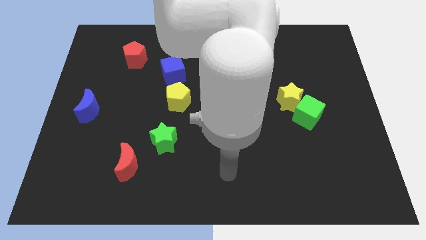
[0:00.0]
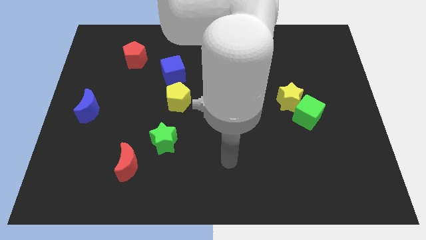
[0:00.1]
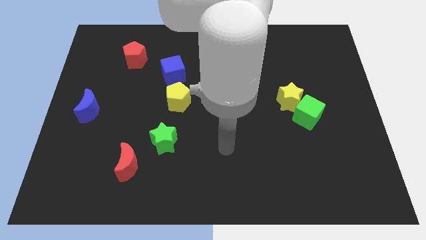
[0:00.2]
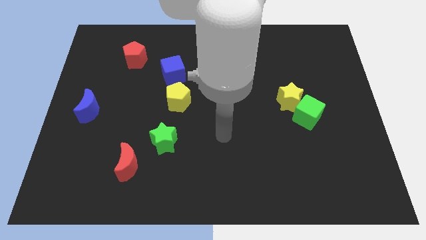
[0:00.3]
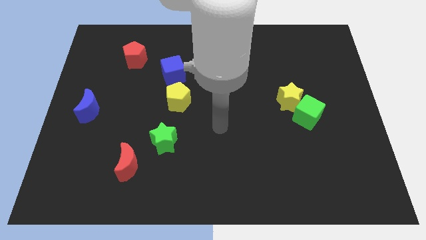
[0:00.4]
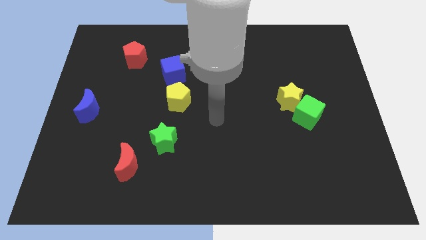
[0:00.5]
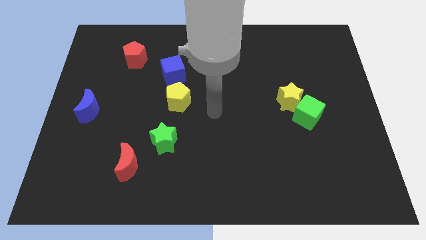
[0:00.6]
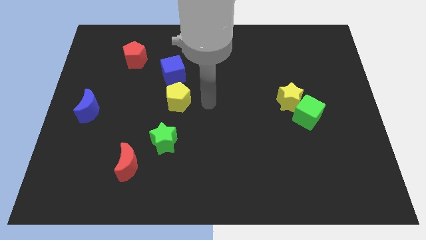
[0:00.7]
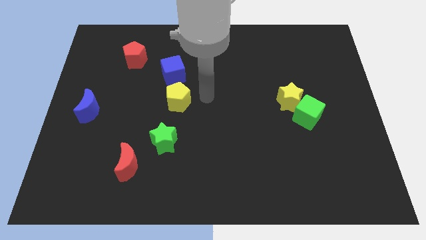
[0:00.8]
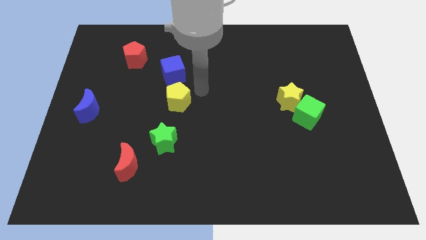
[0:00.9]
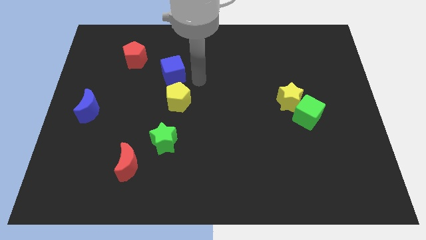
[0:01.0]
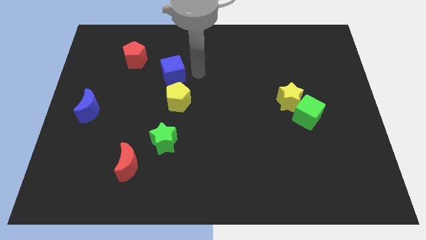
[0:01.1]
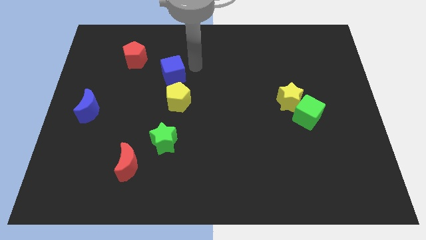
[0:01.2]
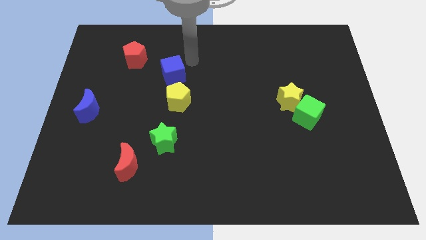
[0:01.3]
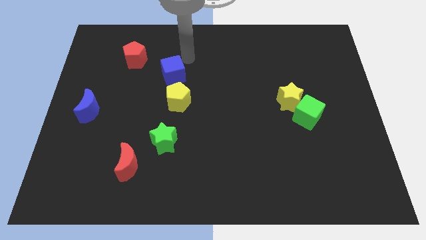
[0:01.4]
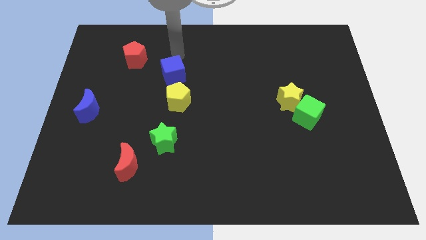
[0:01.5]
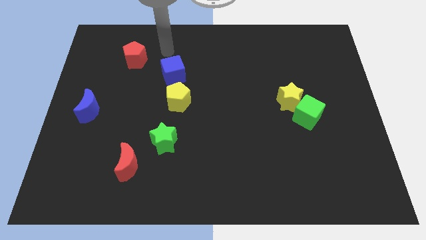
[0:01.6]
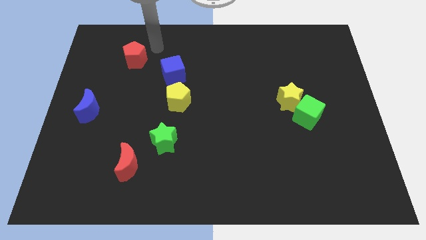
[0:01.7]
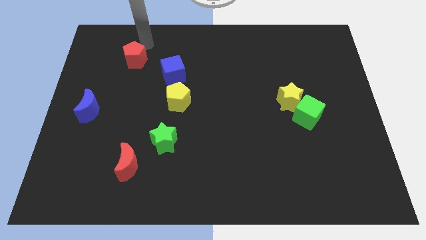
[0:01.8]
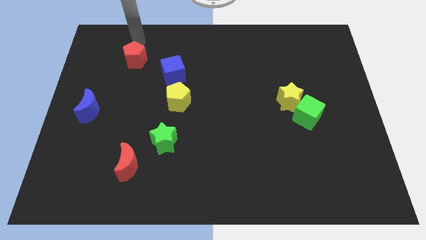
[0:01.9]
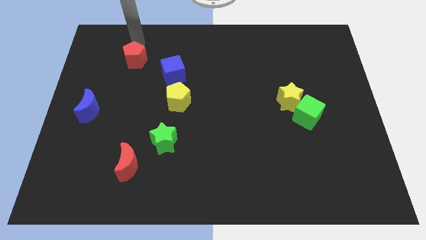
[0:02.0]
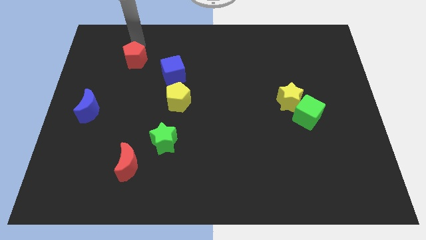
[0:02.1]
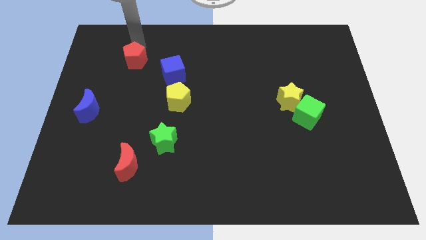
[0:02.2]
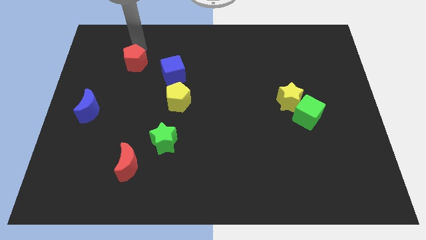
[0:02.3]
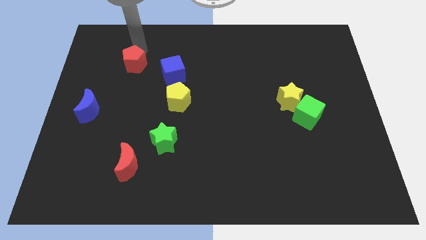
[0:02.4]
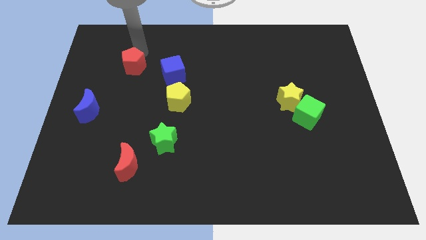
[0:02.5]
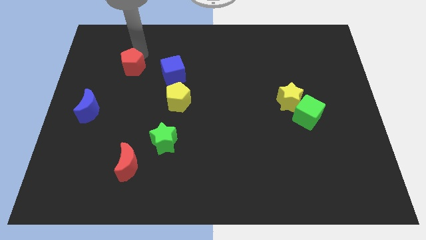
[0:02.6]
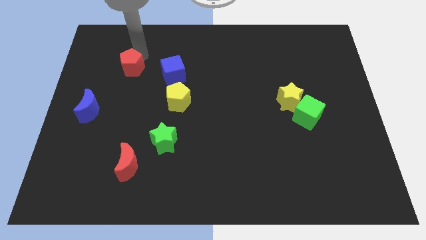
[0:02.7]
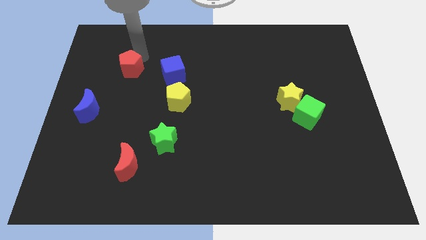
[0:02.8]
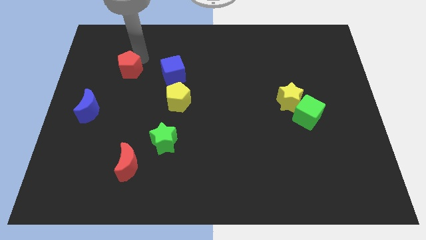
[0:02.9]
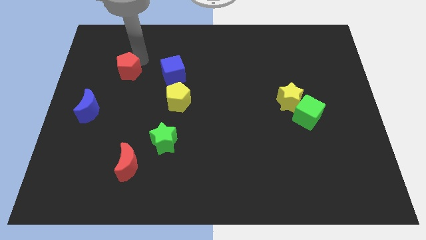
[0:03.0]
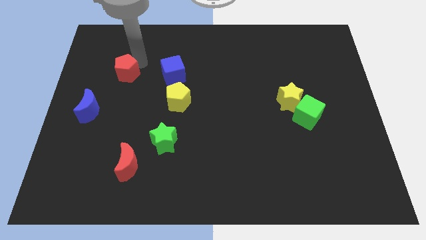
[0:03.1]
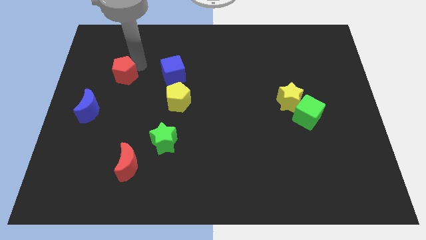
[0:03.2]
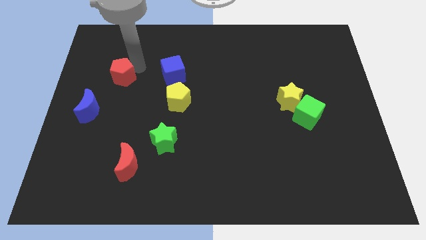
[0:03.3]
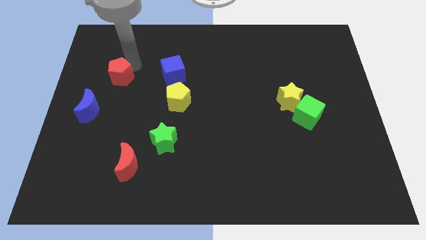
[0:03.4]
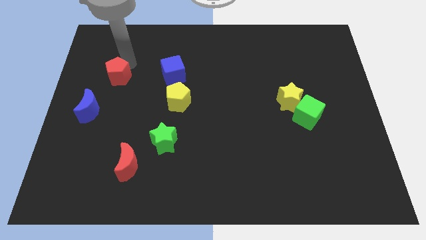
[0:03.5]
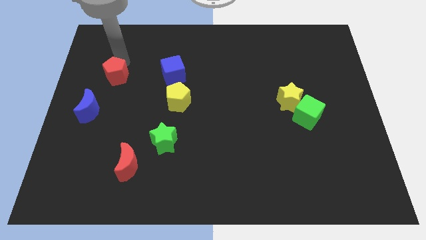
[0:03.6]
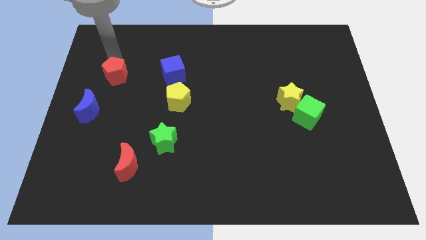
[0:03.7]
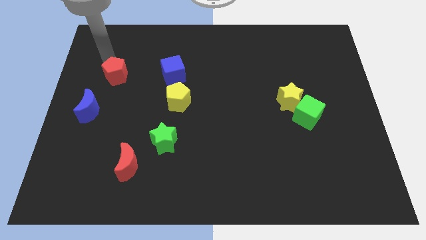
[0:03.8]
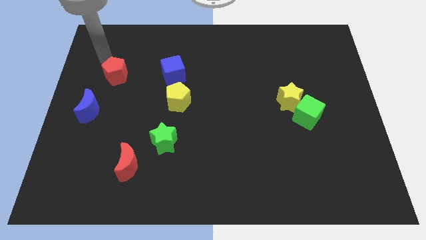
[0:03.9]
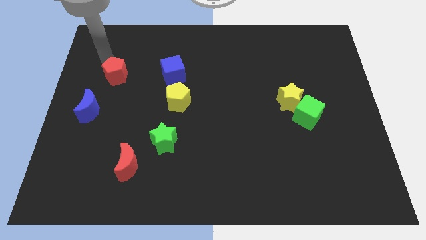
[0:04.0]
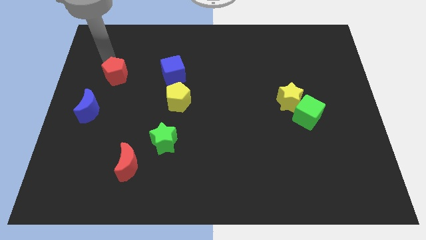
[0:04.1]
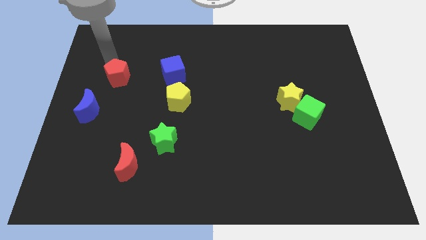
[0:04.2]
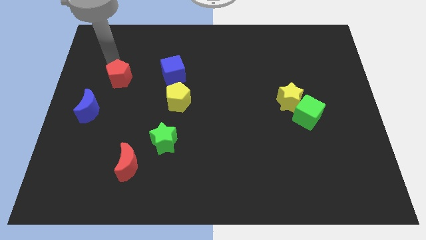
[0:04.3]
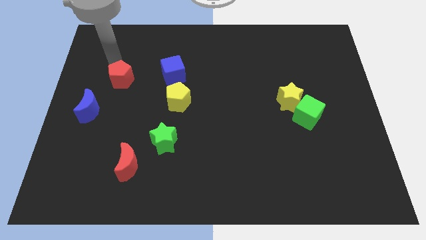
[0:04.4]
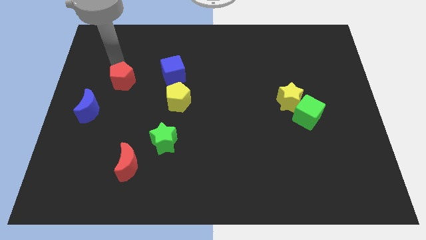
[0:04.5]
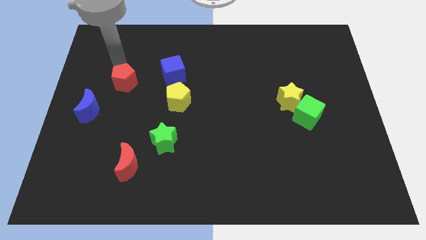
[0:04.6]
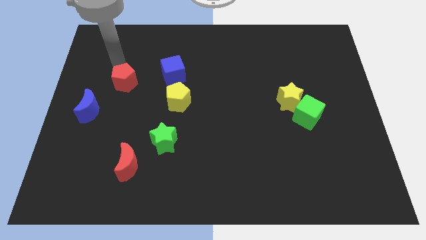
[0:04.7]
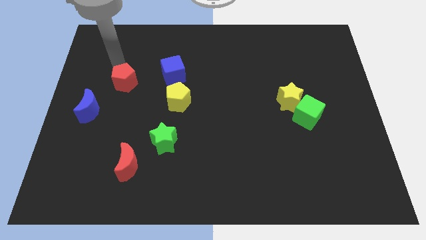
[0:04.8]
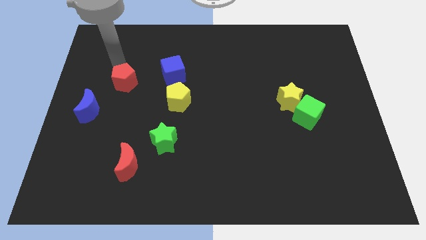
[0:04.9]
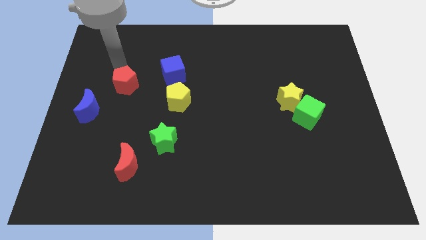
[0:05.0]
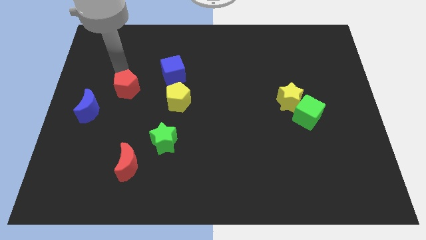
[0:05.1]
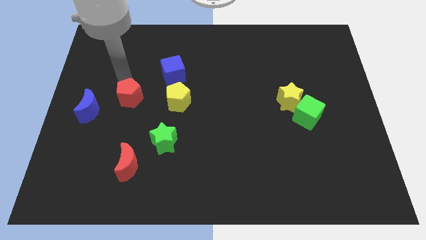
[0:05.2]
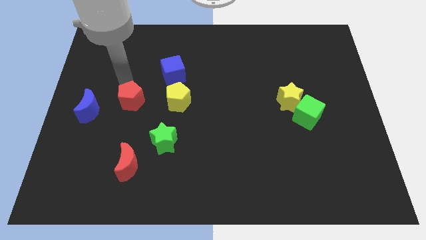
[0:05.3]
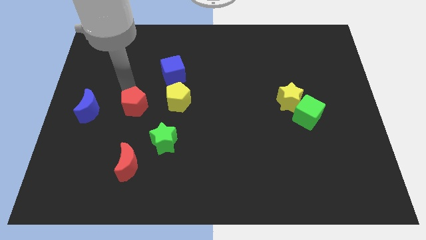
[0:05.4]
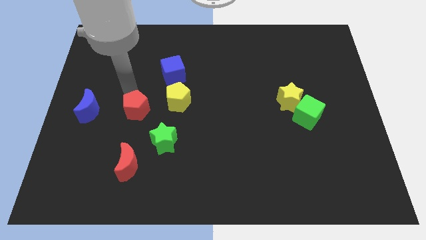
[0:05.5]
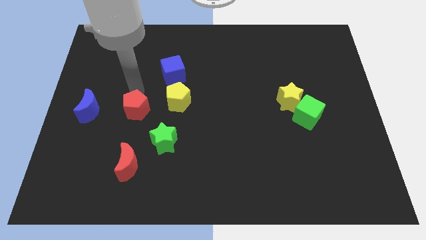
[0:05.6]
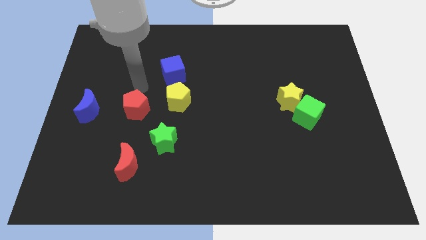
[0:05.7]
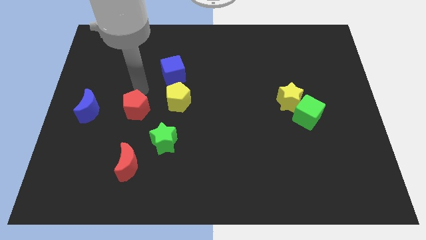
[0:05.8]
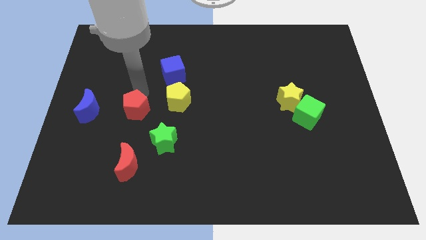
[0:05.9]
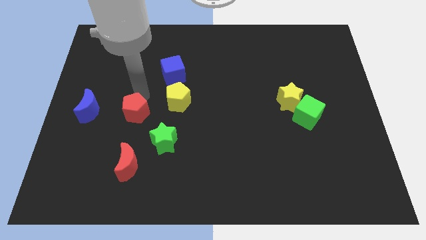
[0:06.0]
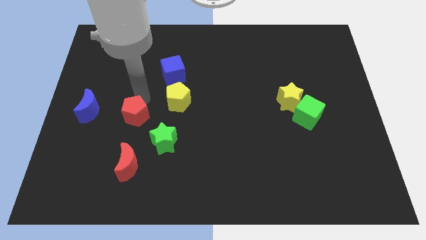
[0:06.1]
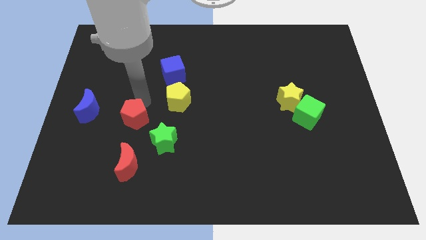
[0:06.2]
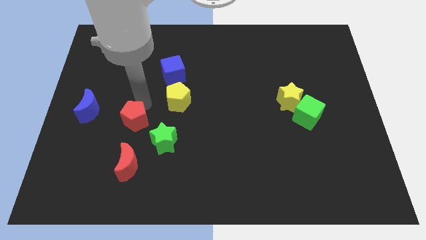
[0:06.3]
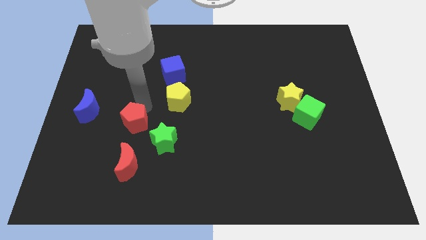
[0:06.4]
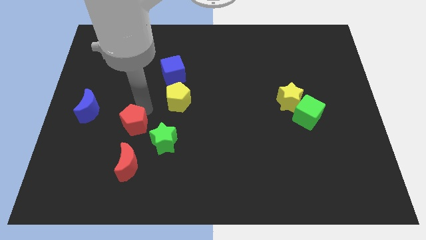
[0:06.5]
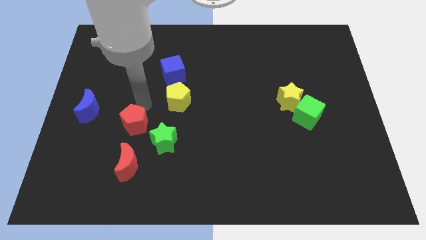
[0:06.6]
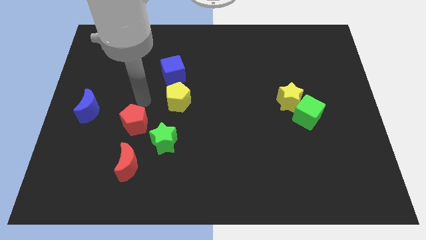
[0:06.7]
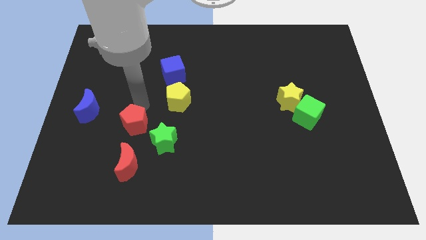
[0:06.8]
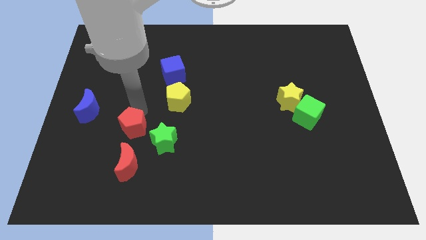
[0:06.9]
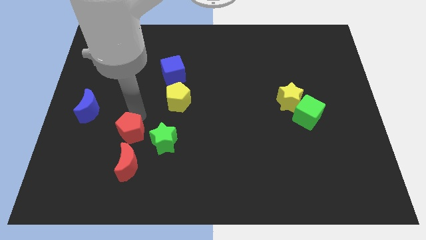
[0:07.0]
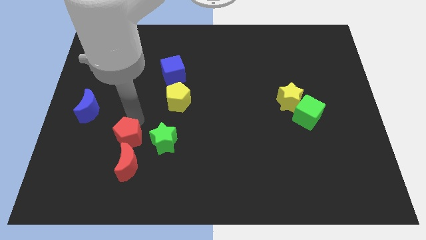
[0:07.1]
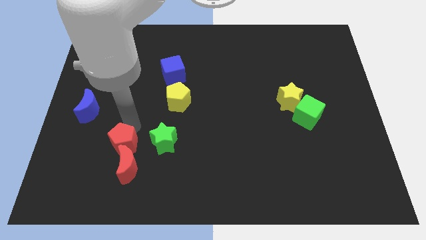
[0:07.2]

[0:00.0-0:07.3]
put the red pentagon towards the red moon

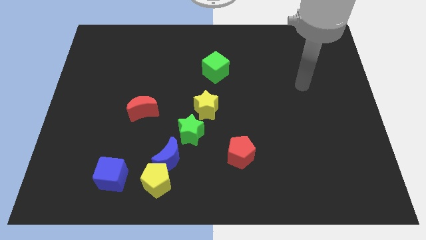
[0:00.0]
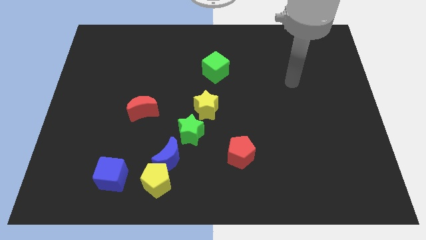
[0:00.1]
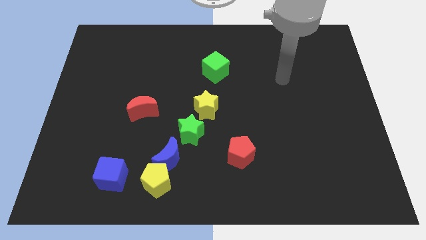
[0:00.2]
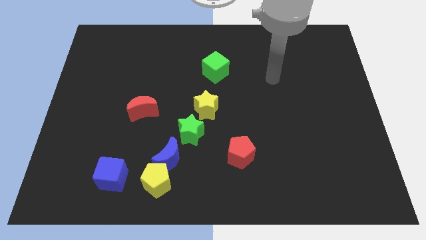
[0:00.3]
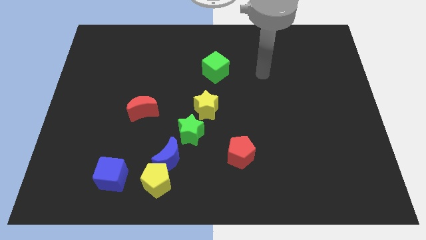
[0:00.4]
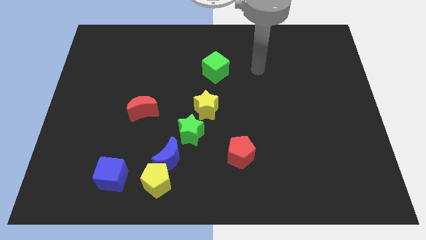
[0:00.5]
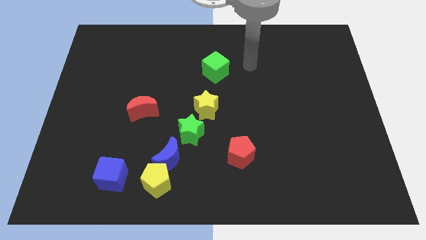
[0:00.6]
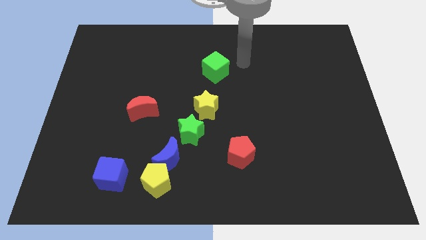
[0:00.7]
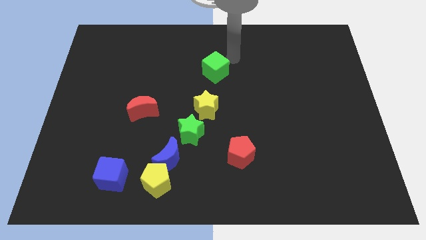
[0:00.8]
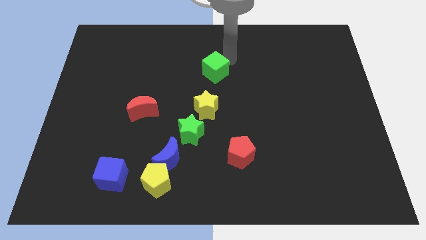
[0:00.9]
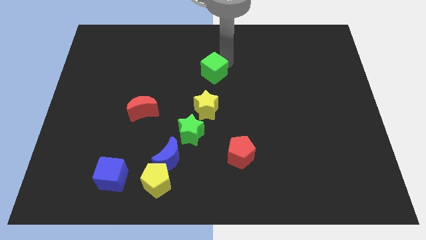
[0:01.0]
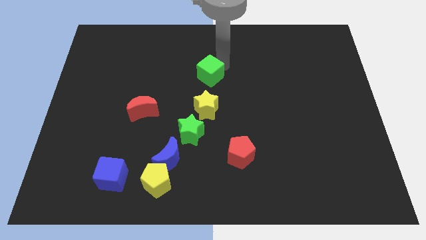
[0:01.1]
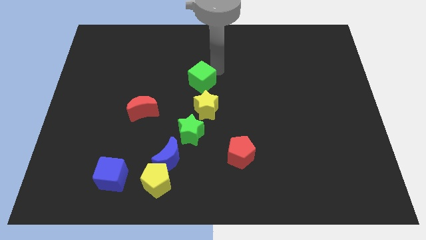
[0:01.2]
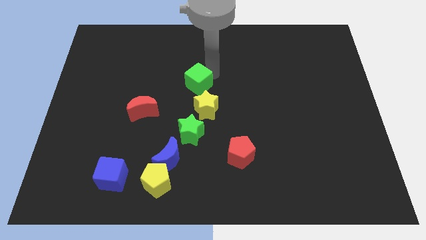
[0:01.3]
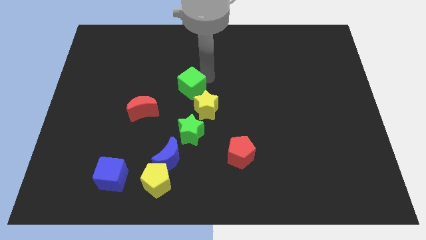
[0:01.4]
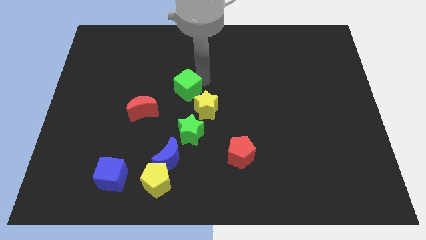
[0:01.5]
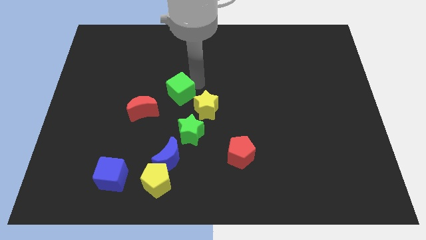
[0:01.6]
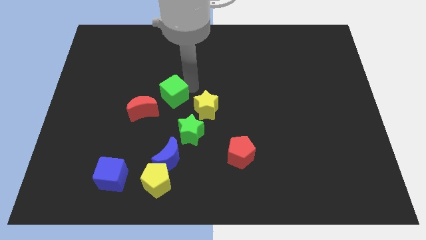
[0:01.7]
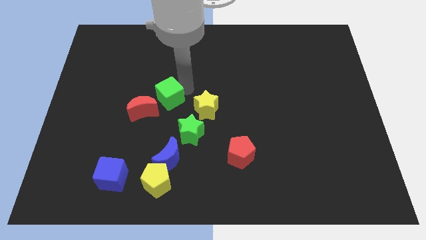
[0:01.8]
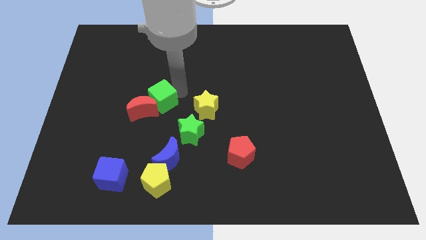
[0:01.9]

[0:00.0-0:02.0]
slide the green cube to the red moon
